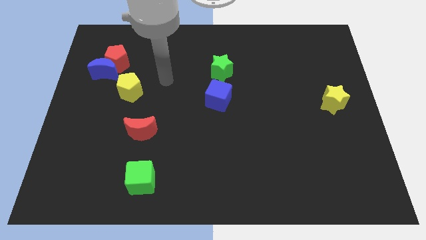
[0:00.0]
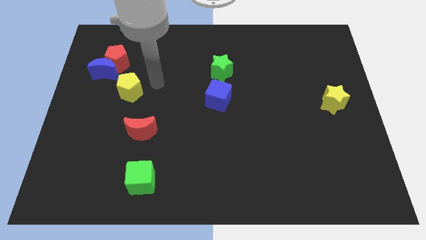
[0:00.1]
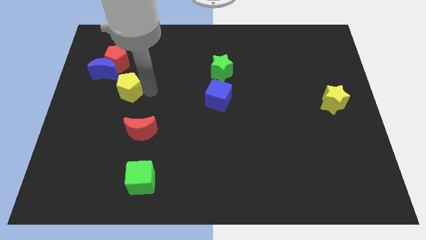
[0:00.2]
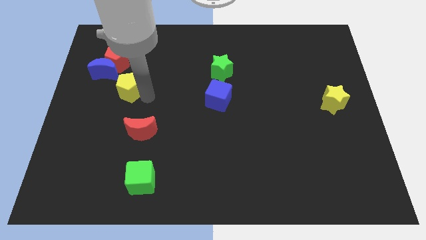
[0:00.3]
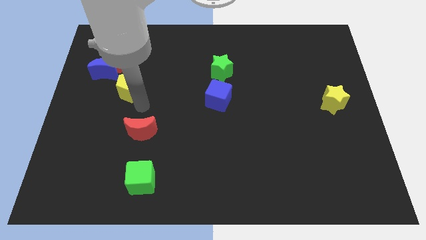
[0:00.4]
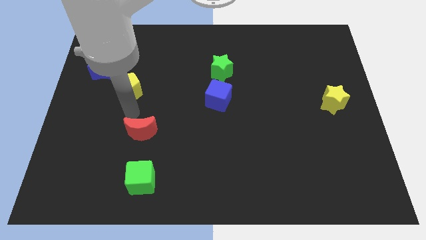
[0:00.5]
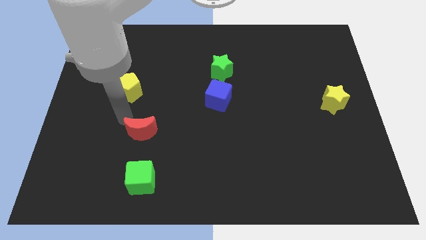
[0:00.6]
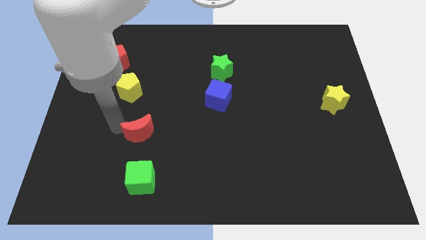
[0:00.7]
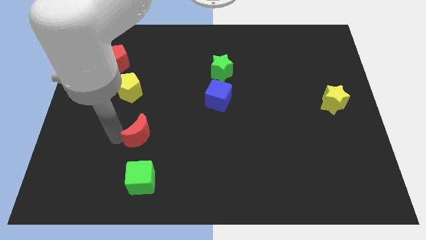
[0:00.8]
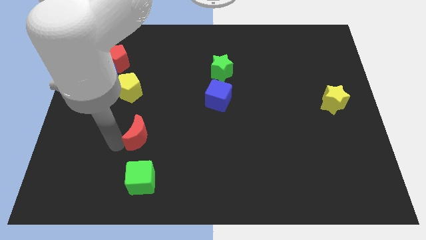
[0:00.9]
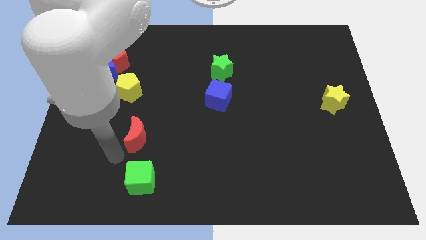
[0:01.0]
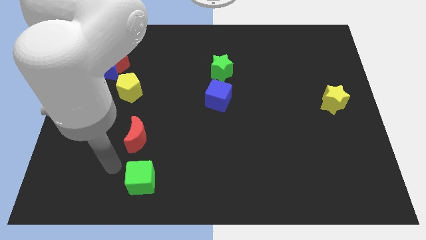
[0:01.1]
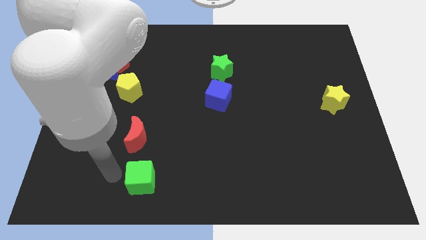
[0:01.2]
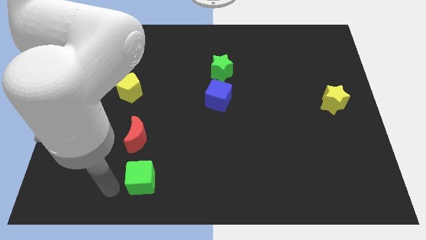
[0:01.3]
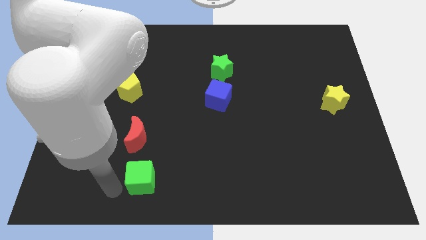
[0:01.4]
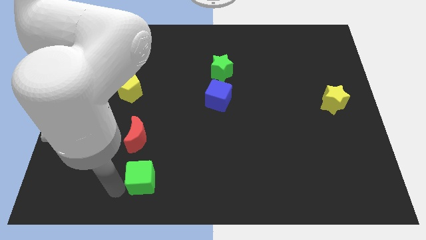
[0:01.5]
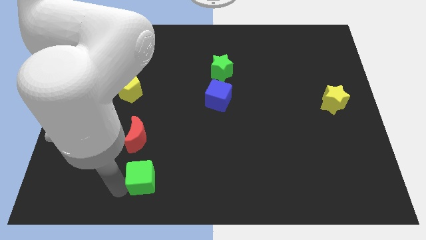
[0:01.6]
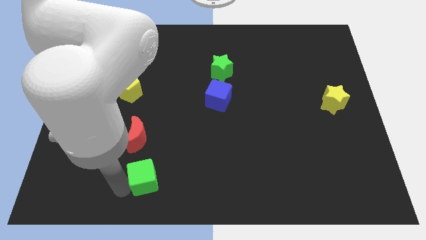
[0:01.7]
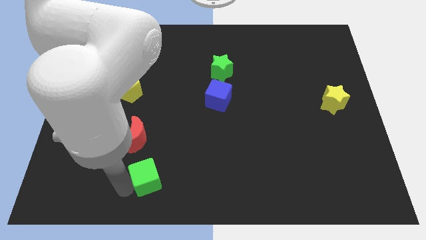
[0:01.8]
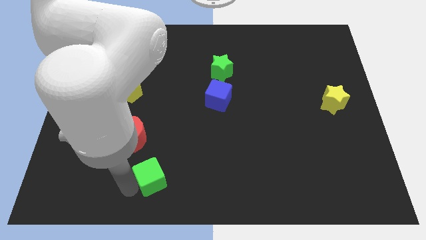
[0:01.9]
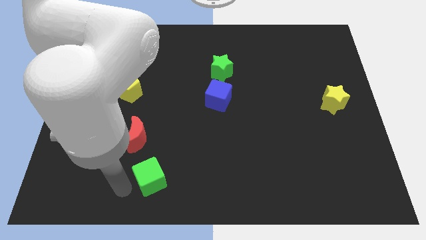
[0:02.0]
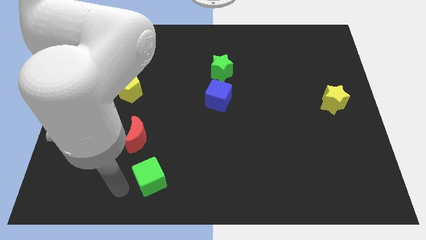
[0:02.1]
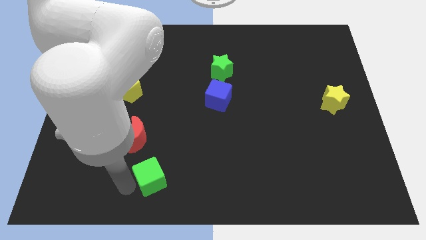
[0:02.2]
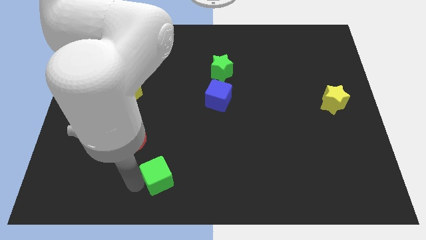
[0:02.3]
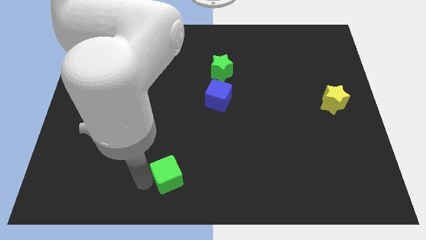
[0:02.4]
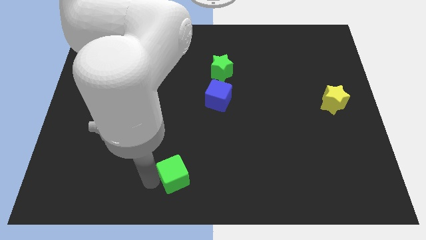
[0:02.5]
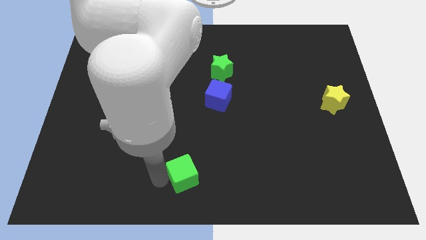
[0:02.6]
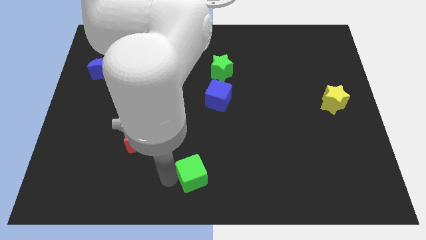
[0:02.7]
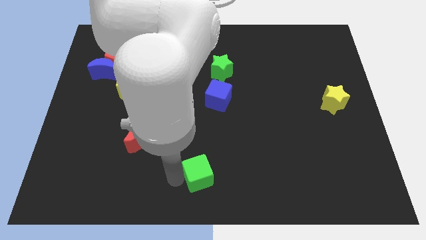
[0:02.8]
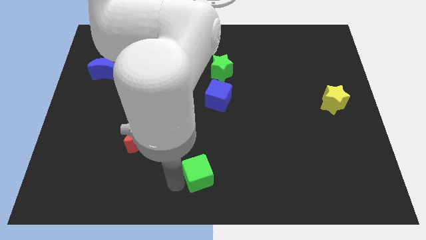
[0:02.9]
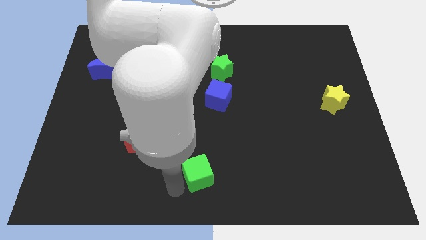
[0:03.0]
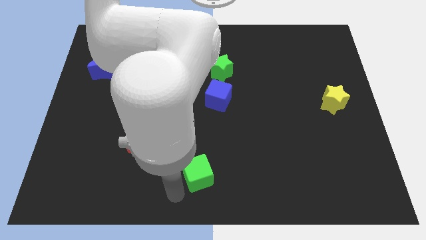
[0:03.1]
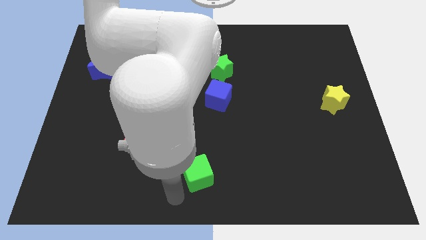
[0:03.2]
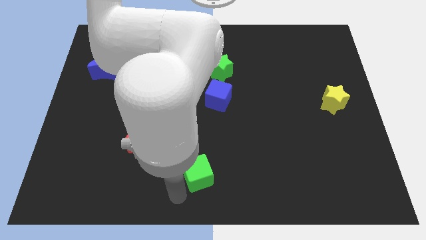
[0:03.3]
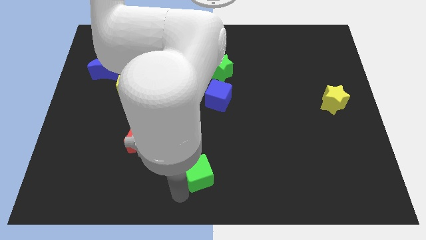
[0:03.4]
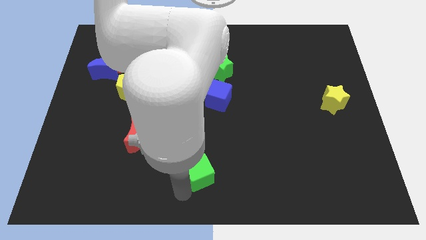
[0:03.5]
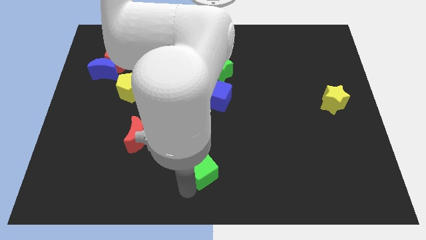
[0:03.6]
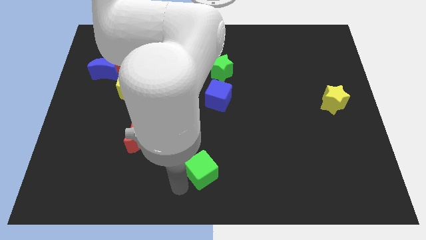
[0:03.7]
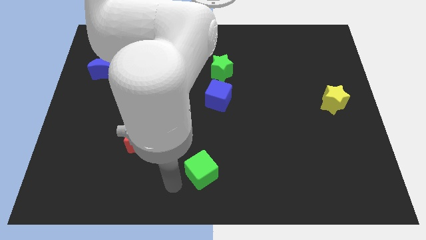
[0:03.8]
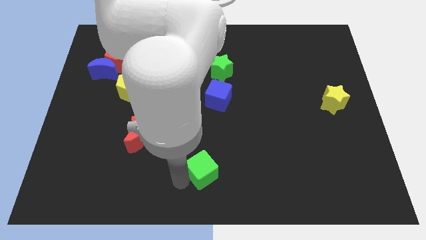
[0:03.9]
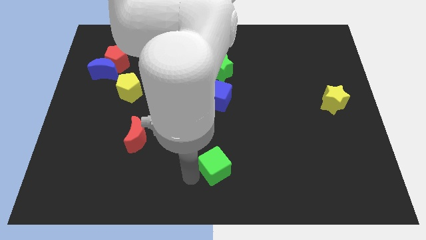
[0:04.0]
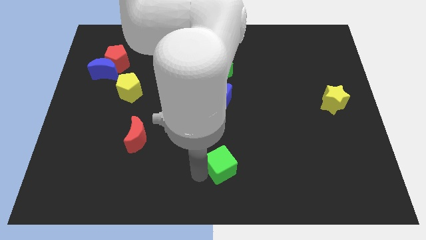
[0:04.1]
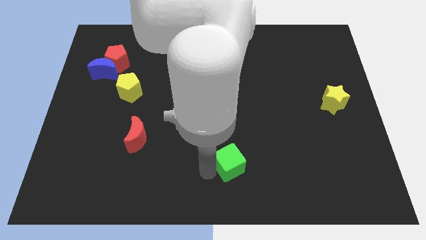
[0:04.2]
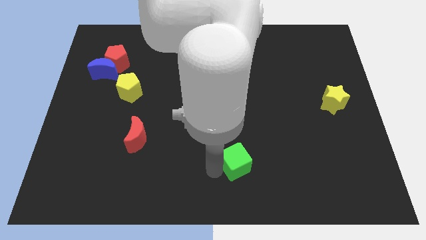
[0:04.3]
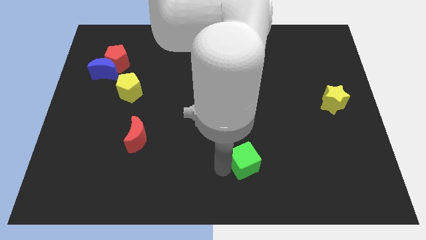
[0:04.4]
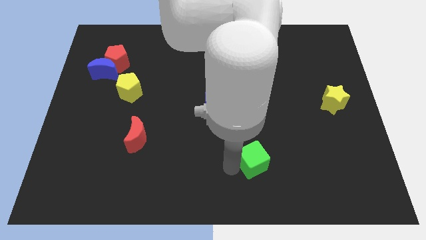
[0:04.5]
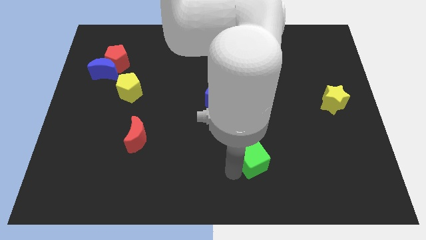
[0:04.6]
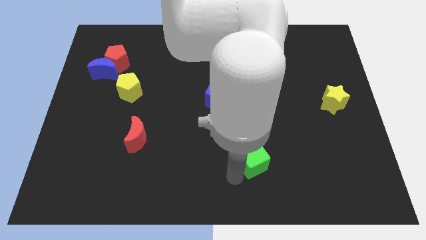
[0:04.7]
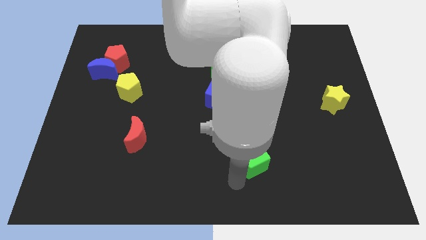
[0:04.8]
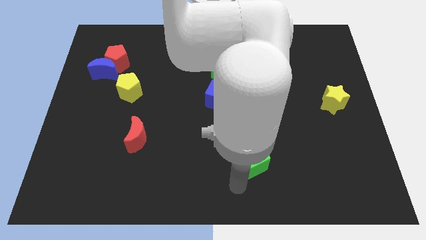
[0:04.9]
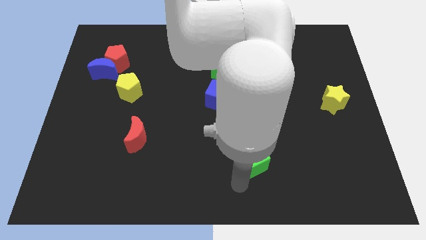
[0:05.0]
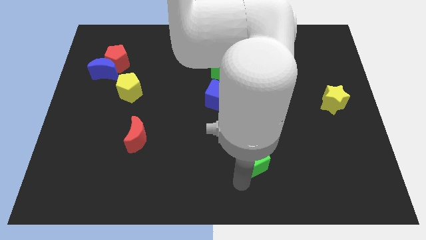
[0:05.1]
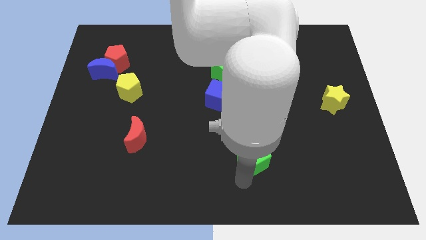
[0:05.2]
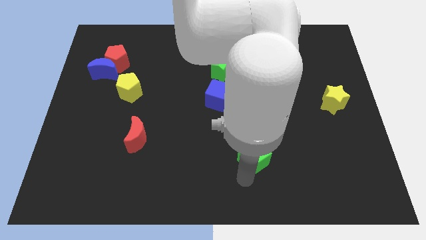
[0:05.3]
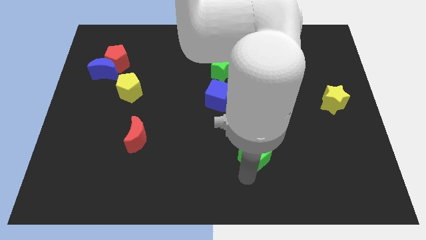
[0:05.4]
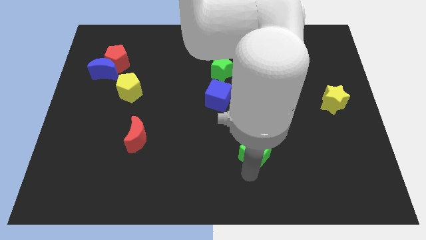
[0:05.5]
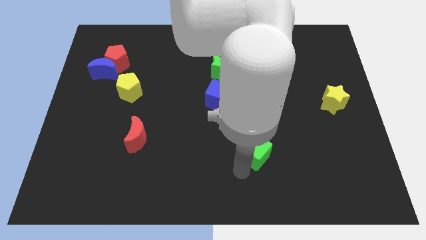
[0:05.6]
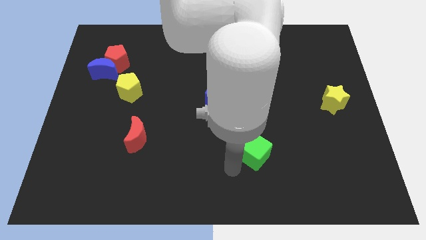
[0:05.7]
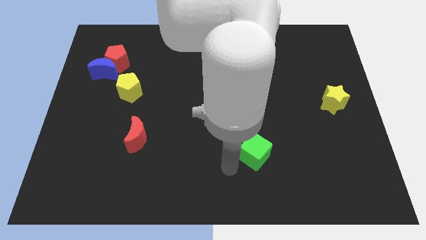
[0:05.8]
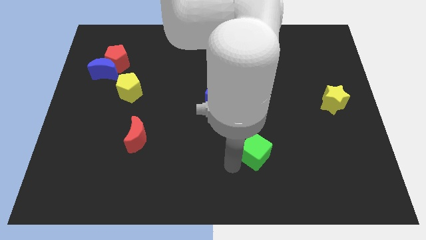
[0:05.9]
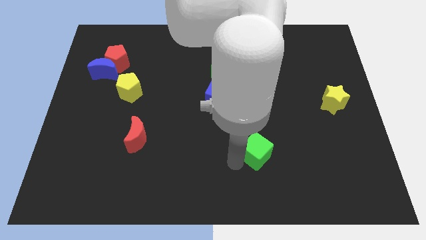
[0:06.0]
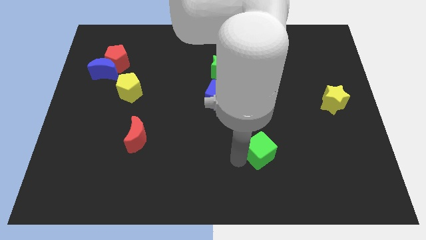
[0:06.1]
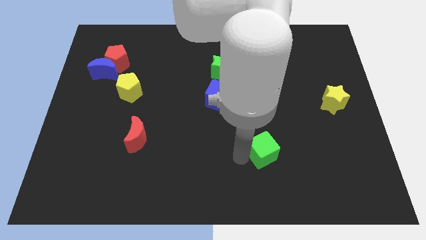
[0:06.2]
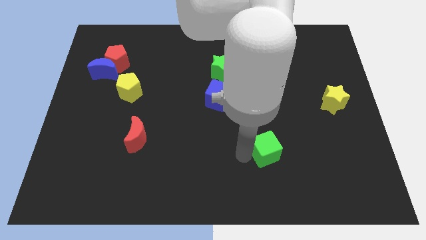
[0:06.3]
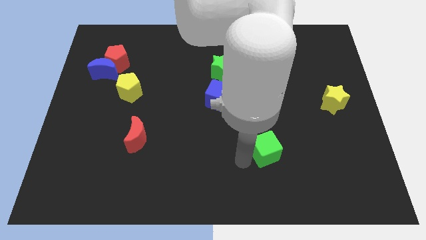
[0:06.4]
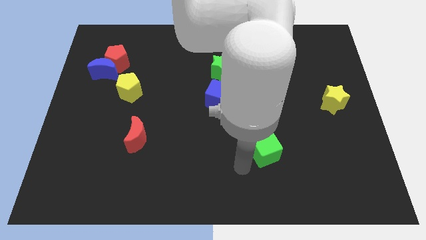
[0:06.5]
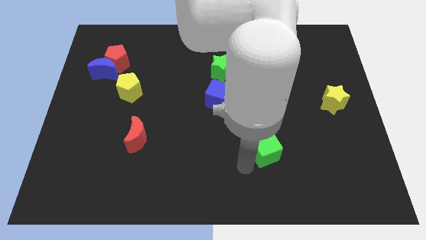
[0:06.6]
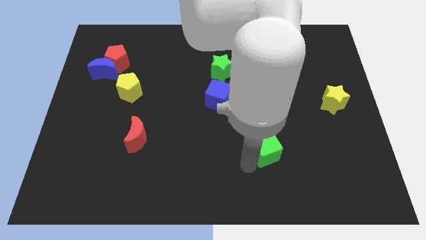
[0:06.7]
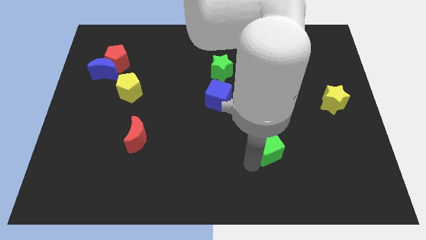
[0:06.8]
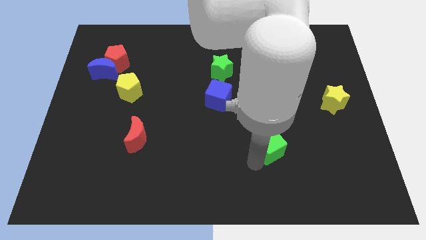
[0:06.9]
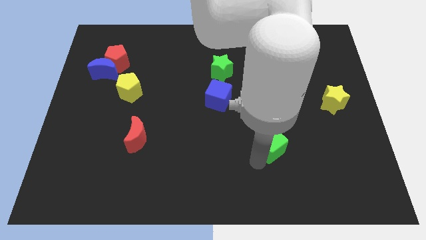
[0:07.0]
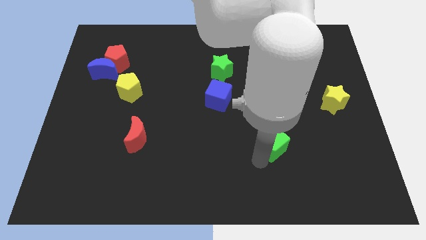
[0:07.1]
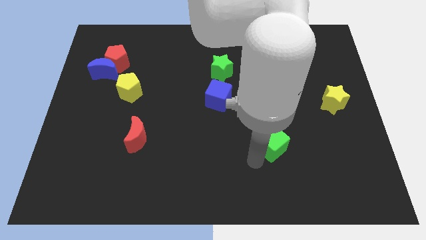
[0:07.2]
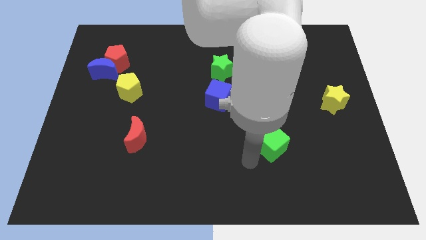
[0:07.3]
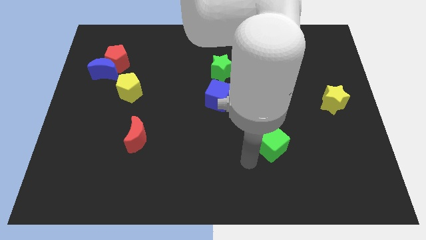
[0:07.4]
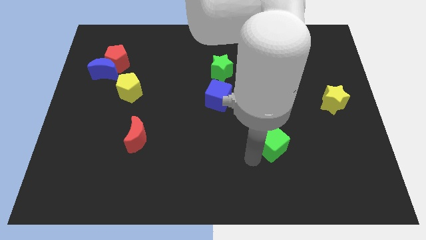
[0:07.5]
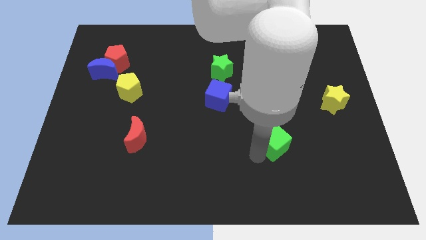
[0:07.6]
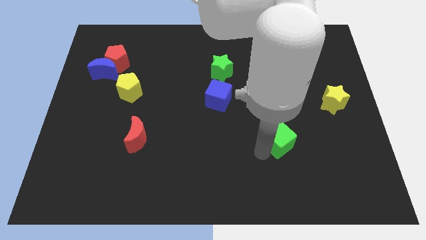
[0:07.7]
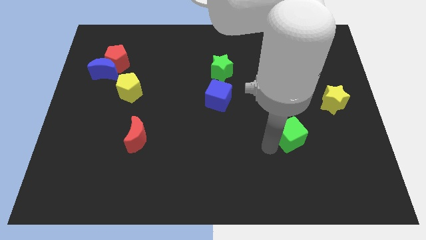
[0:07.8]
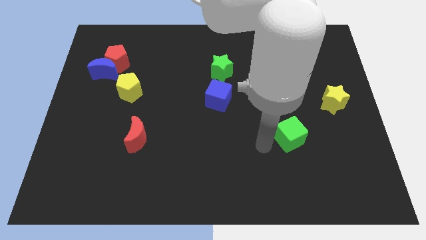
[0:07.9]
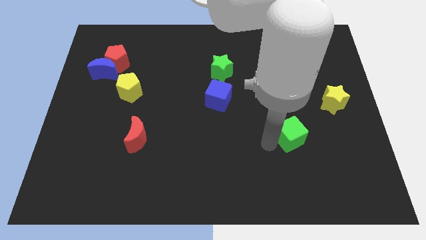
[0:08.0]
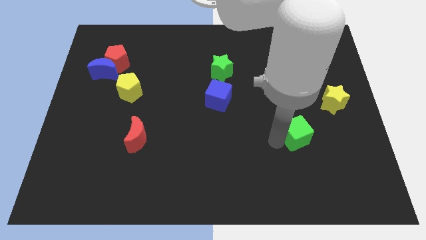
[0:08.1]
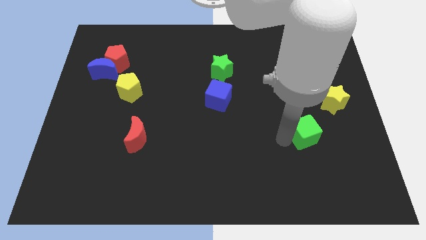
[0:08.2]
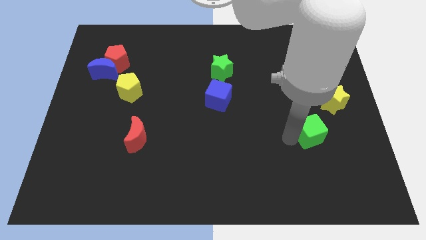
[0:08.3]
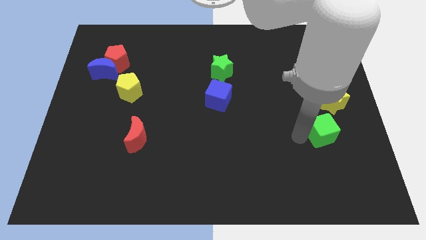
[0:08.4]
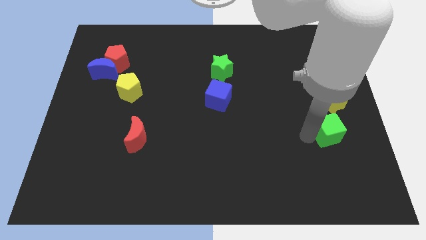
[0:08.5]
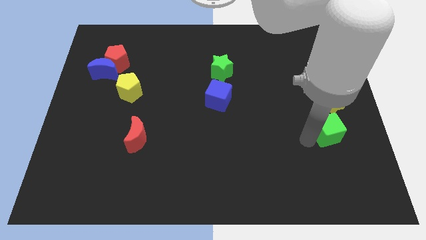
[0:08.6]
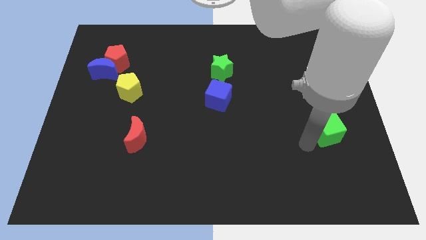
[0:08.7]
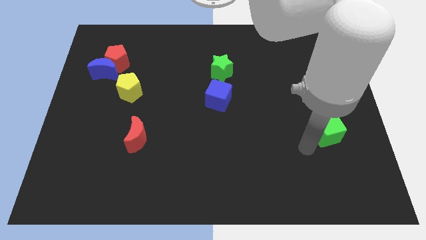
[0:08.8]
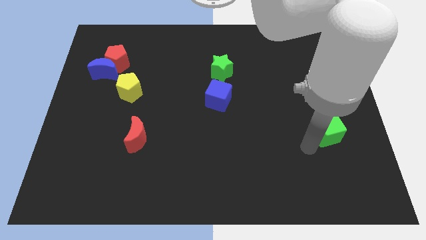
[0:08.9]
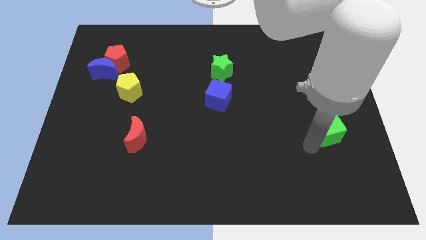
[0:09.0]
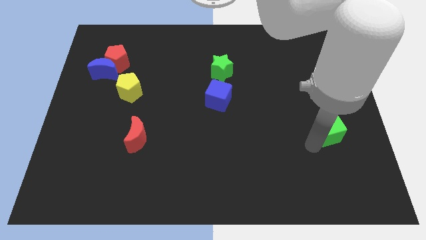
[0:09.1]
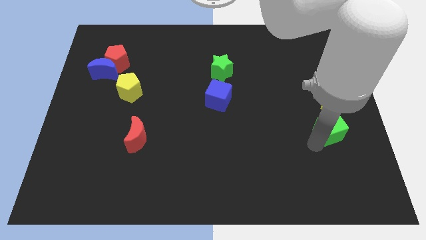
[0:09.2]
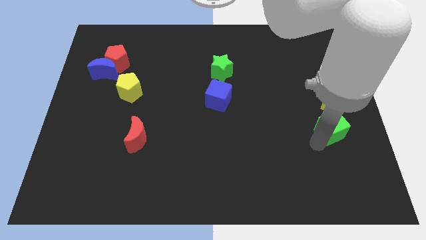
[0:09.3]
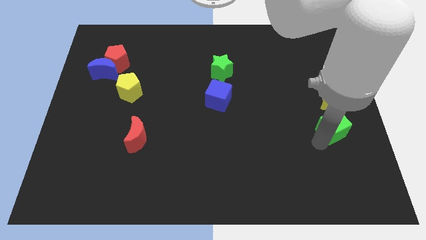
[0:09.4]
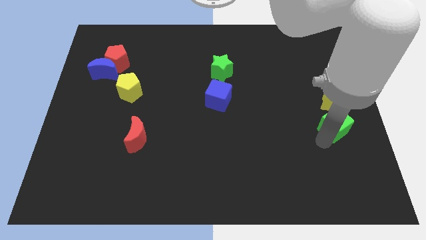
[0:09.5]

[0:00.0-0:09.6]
slide the green cube to the center right
